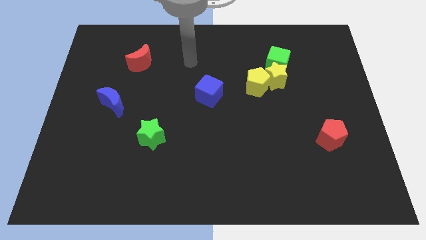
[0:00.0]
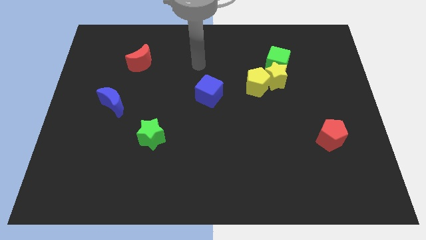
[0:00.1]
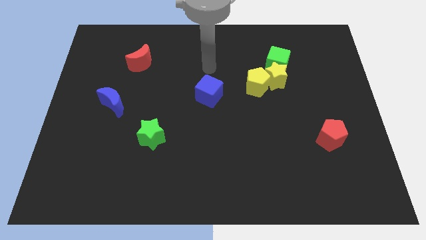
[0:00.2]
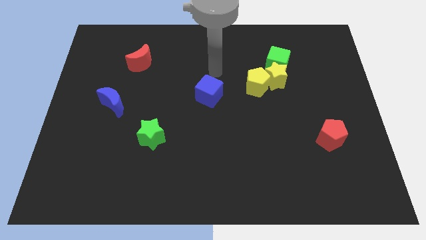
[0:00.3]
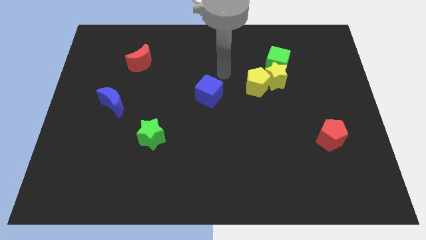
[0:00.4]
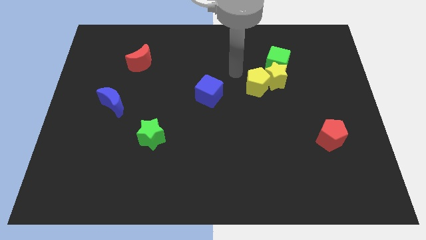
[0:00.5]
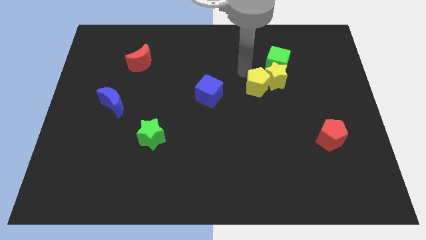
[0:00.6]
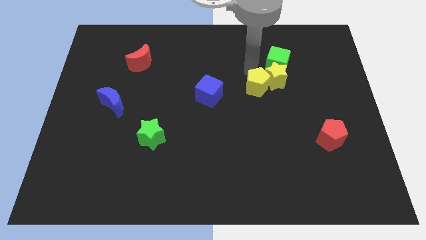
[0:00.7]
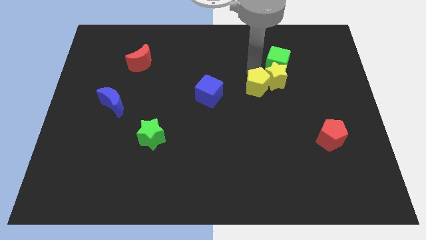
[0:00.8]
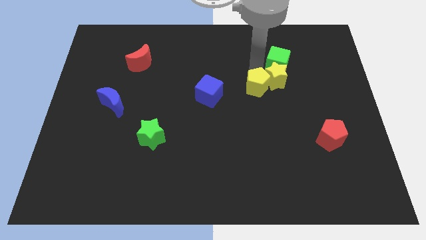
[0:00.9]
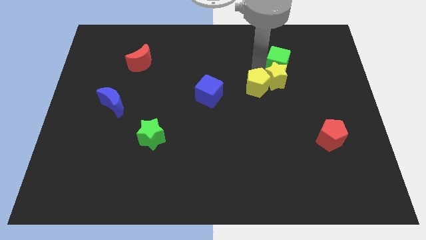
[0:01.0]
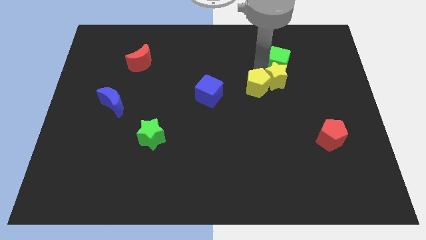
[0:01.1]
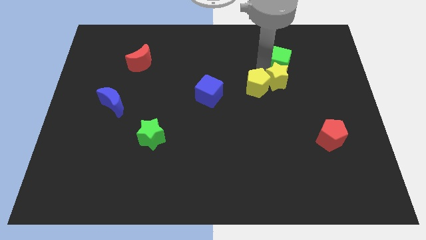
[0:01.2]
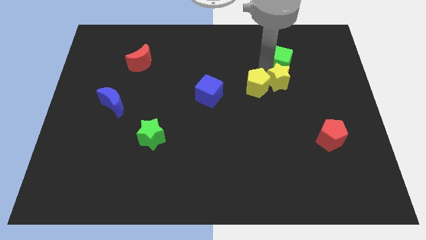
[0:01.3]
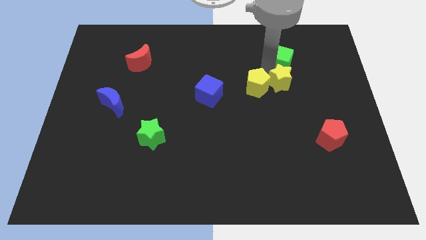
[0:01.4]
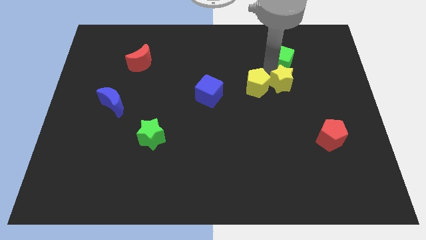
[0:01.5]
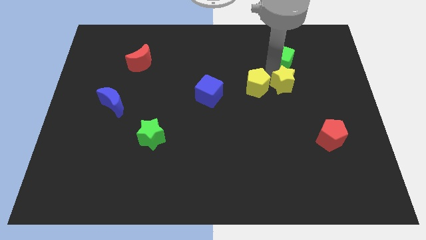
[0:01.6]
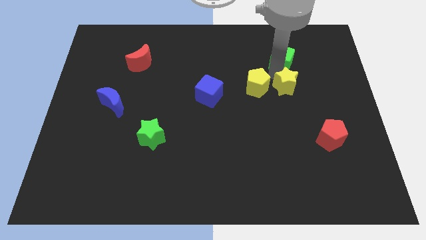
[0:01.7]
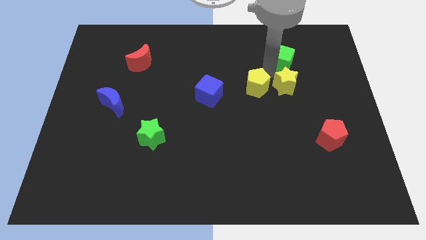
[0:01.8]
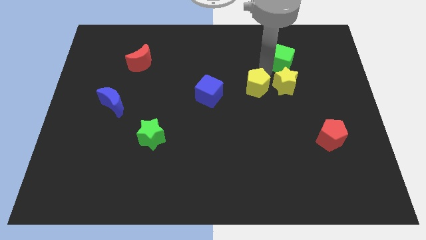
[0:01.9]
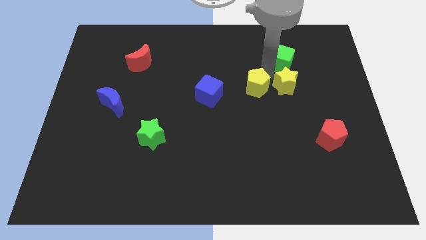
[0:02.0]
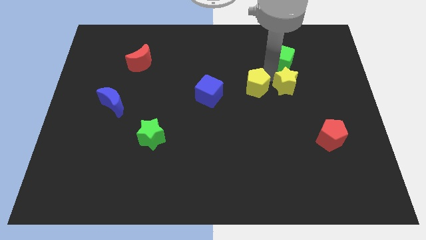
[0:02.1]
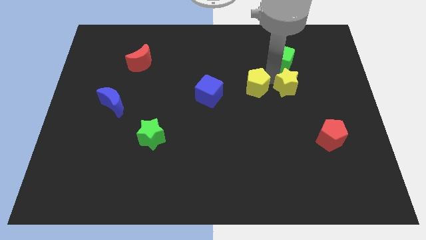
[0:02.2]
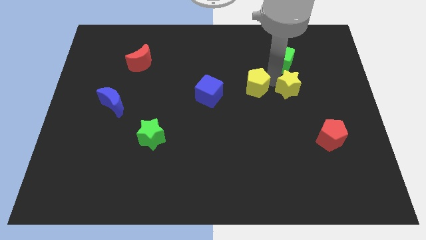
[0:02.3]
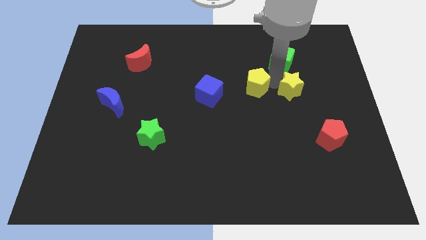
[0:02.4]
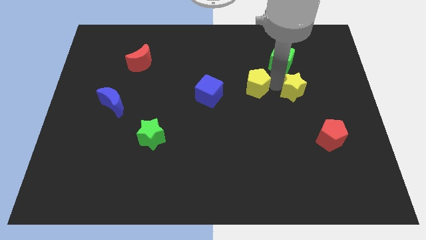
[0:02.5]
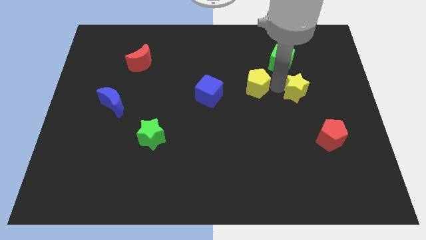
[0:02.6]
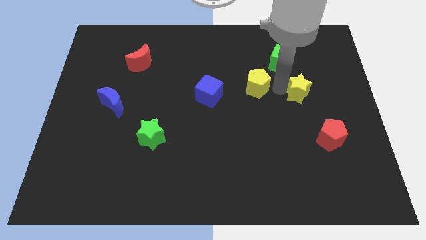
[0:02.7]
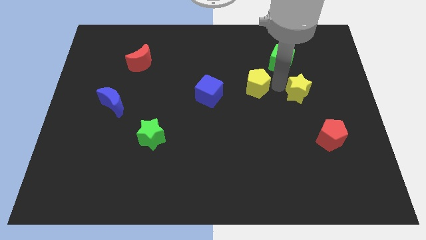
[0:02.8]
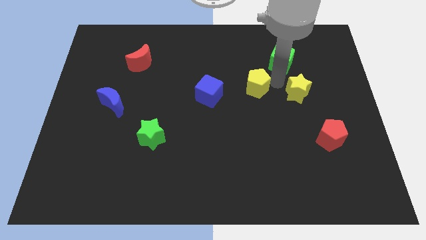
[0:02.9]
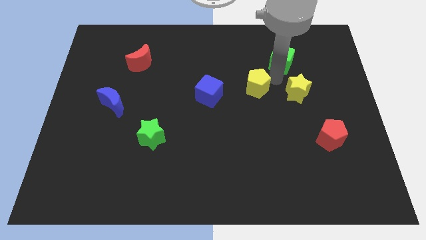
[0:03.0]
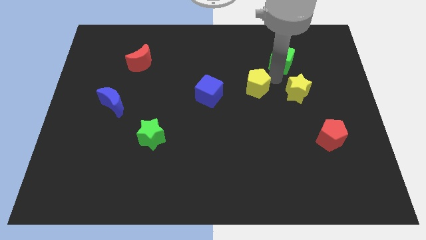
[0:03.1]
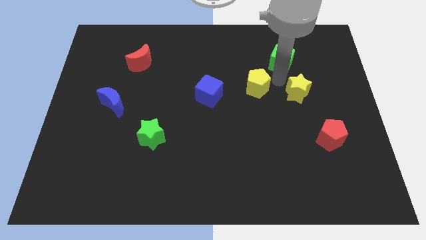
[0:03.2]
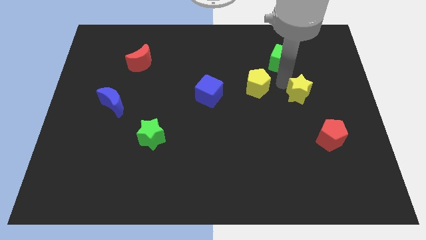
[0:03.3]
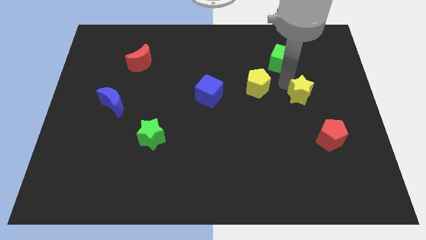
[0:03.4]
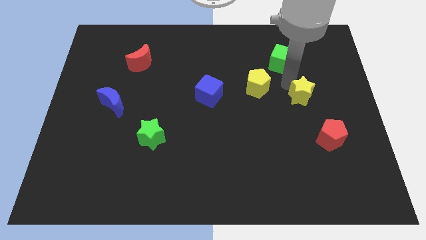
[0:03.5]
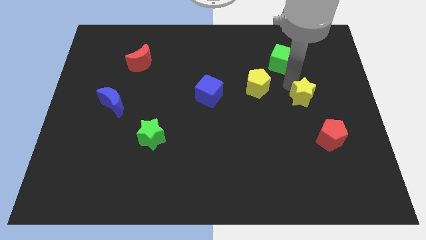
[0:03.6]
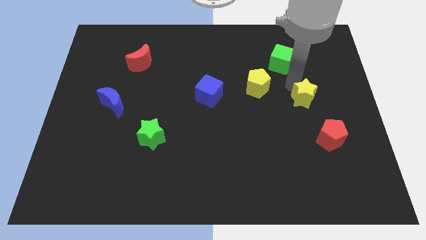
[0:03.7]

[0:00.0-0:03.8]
move the yellow star away from the green cube and yellow pentagon

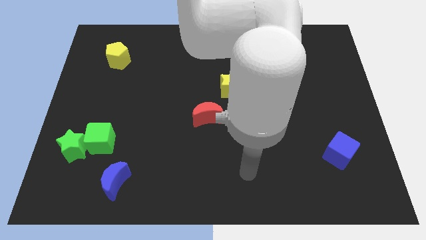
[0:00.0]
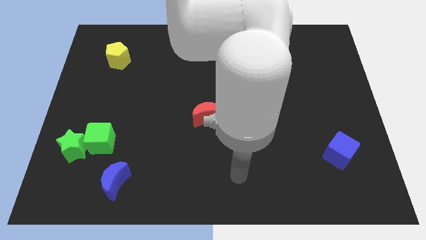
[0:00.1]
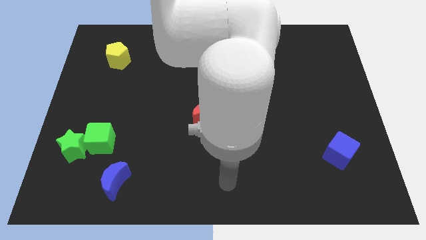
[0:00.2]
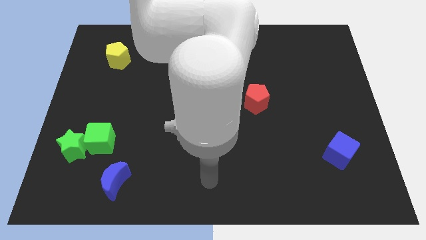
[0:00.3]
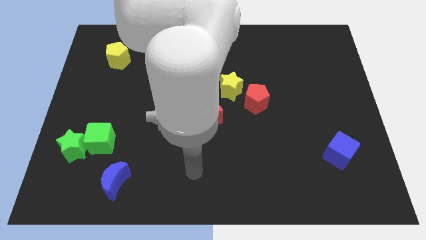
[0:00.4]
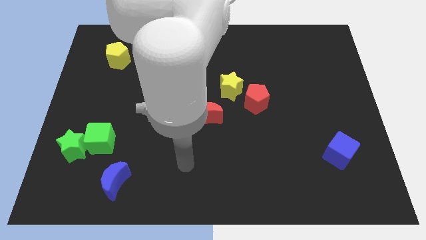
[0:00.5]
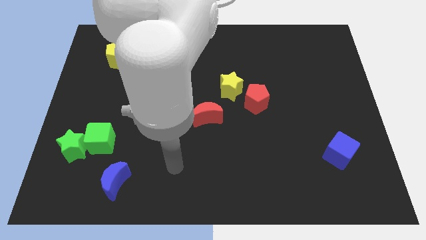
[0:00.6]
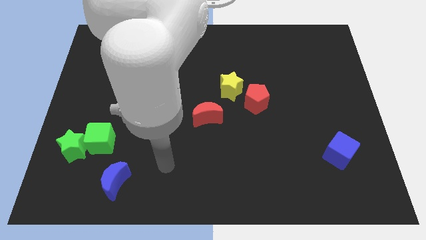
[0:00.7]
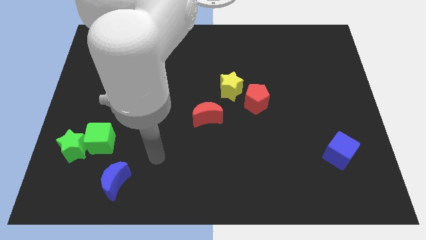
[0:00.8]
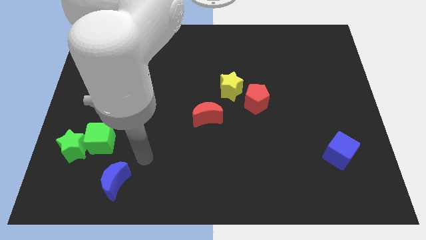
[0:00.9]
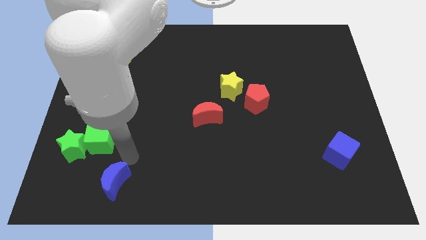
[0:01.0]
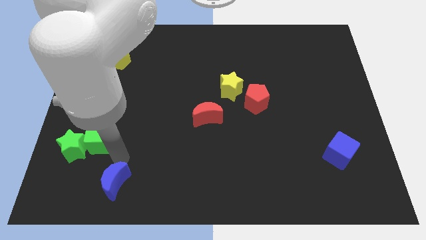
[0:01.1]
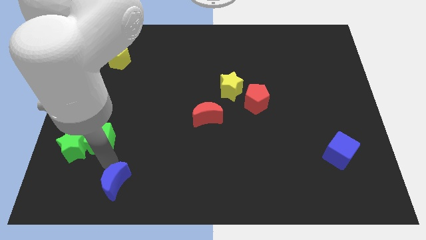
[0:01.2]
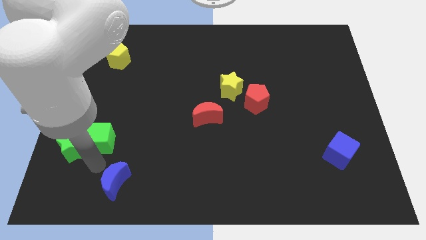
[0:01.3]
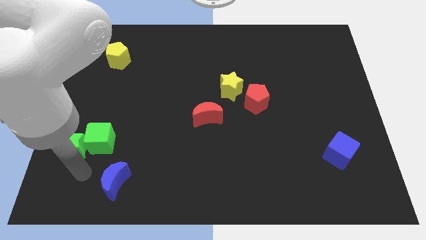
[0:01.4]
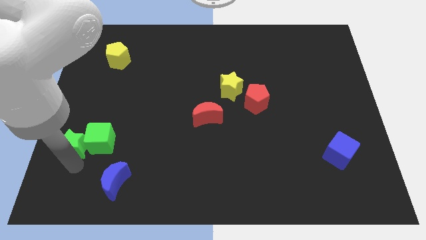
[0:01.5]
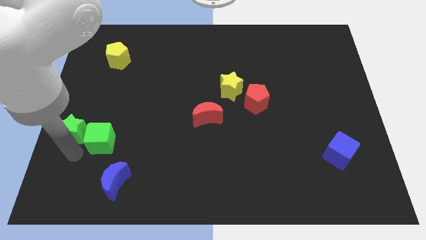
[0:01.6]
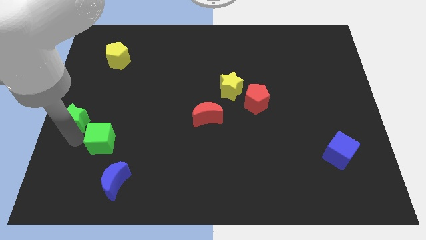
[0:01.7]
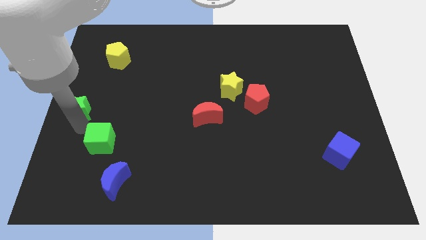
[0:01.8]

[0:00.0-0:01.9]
move the green cube away from the green star

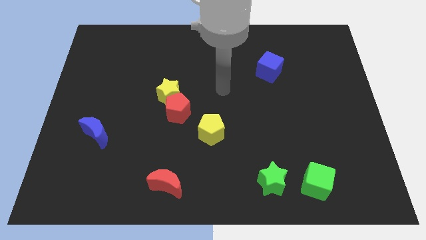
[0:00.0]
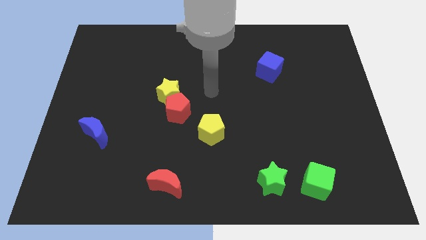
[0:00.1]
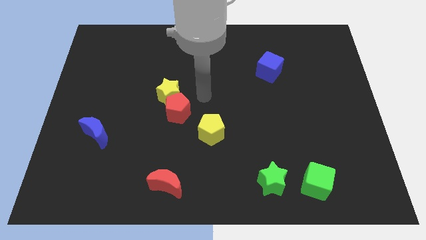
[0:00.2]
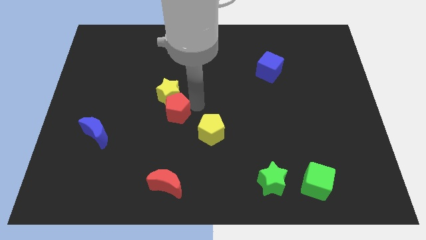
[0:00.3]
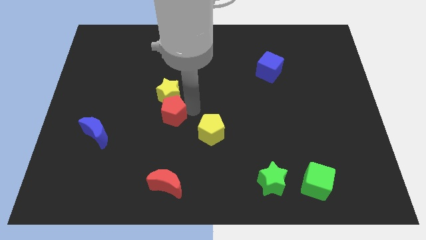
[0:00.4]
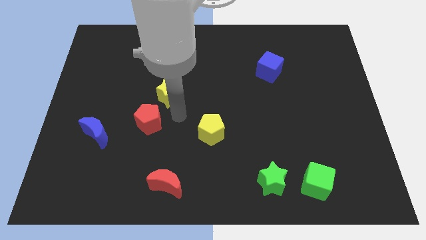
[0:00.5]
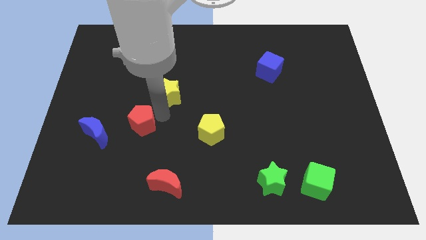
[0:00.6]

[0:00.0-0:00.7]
move the yellow star away from the red pentagon

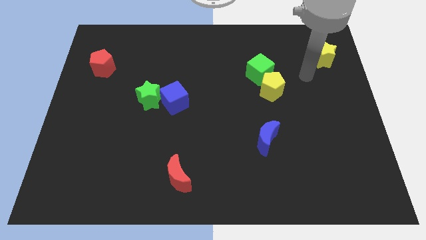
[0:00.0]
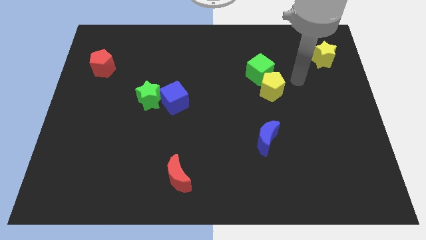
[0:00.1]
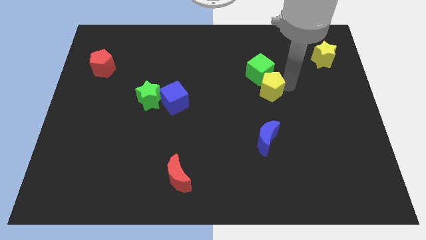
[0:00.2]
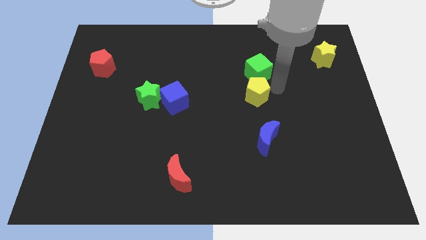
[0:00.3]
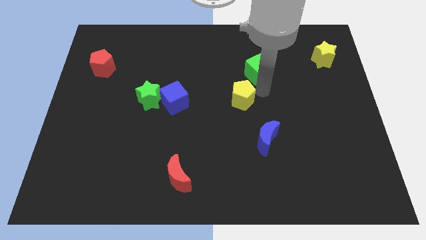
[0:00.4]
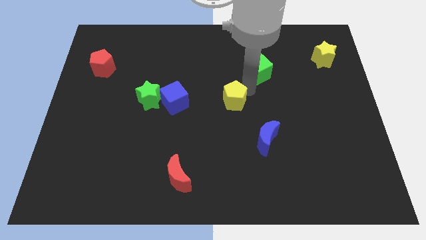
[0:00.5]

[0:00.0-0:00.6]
pull the green cube apart from the yellow pentagon

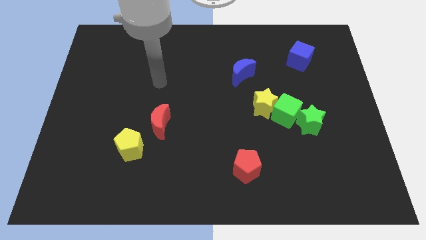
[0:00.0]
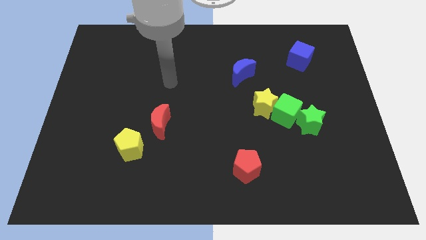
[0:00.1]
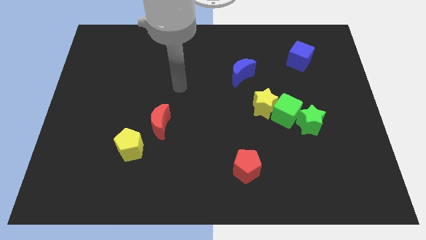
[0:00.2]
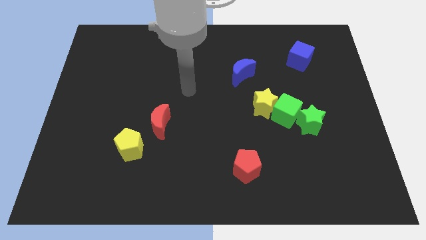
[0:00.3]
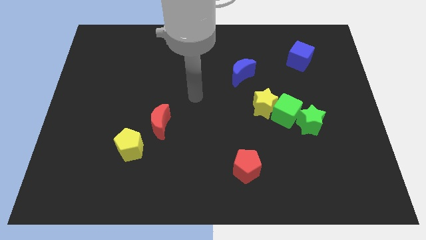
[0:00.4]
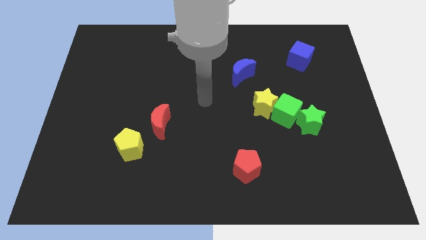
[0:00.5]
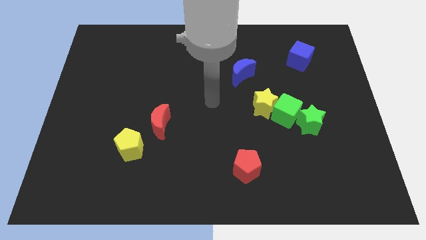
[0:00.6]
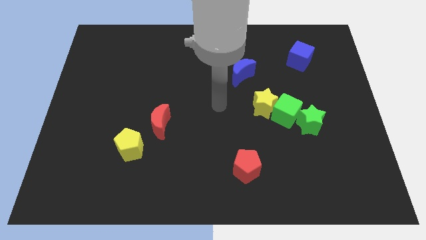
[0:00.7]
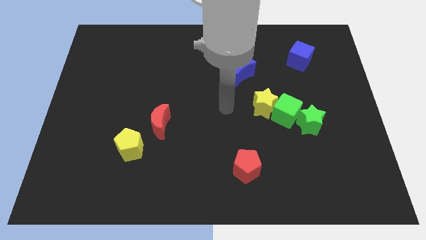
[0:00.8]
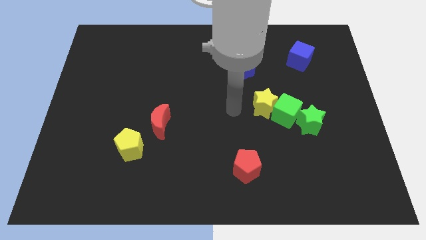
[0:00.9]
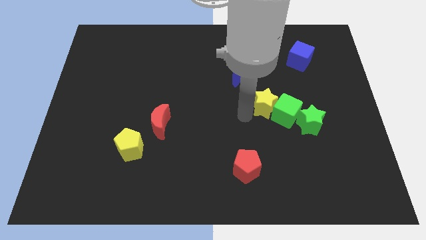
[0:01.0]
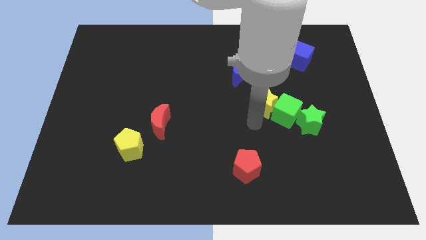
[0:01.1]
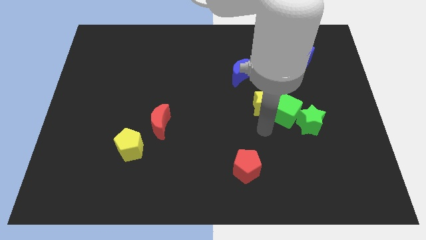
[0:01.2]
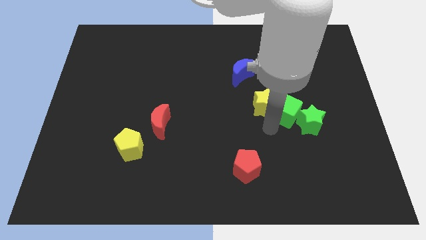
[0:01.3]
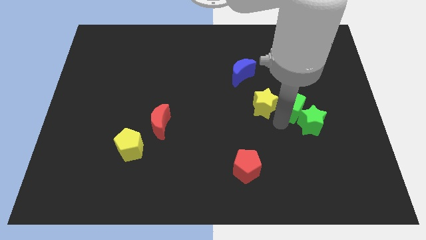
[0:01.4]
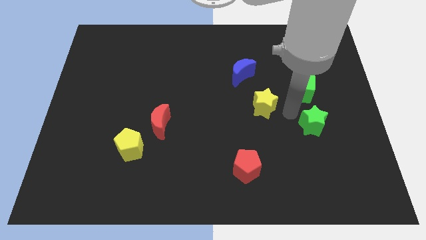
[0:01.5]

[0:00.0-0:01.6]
move the yellow star away from the green cube

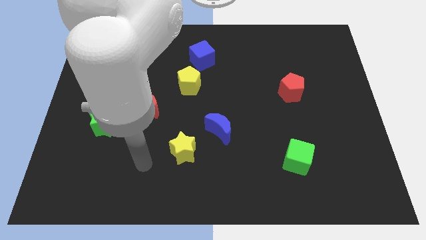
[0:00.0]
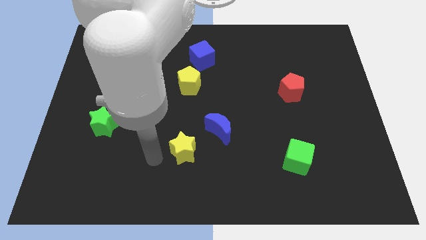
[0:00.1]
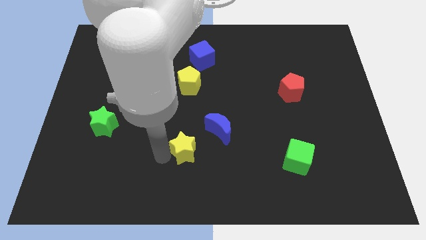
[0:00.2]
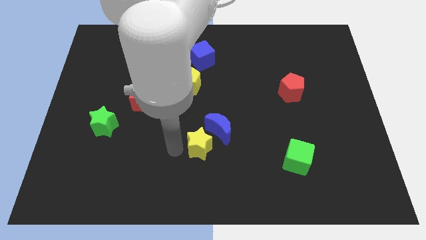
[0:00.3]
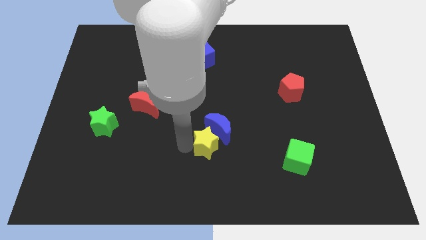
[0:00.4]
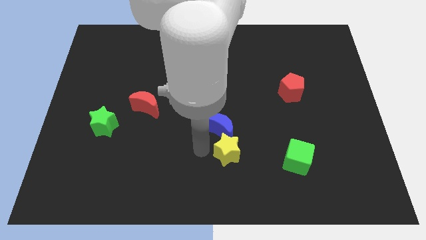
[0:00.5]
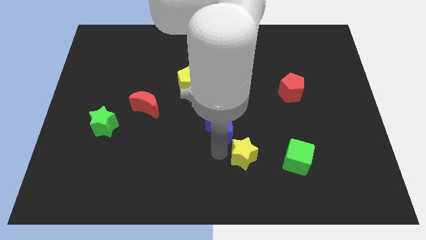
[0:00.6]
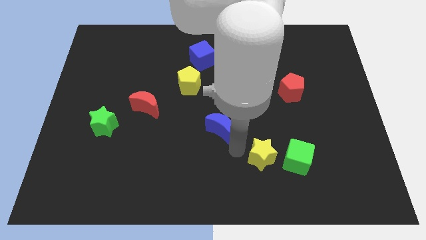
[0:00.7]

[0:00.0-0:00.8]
move the blue moon away from the yellow star
